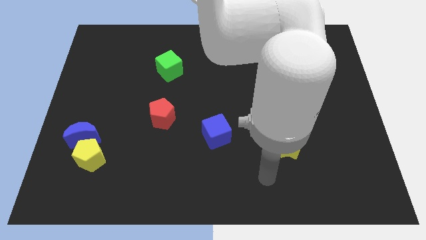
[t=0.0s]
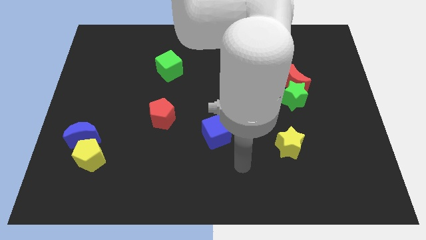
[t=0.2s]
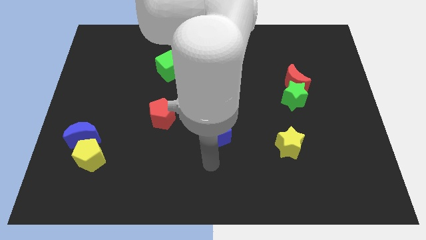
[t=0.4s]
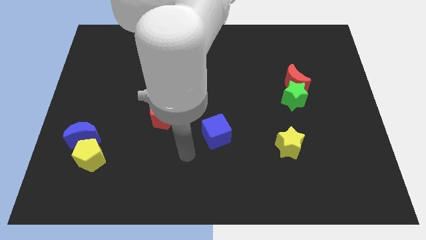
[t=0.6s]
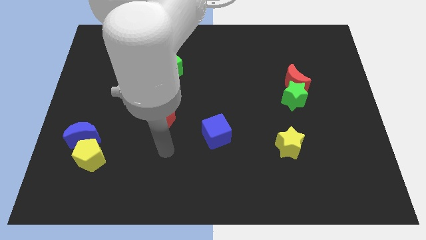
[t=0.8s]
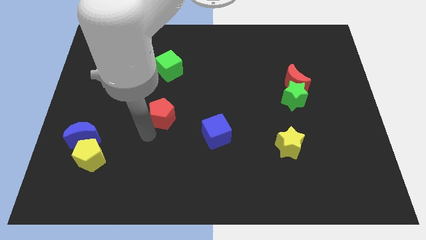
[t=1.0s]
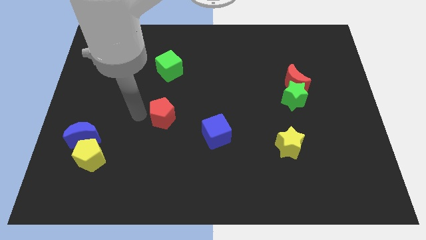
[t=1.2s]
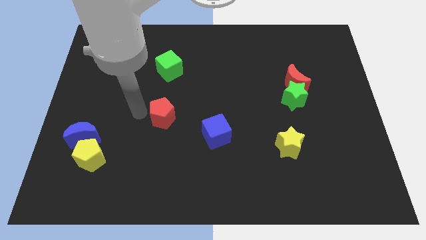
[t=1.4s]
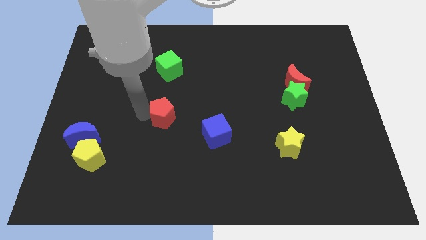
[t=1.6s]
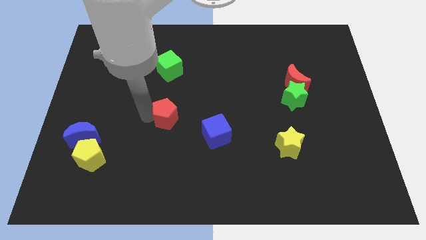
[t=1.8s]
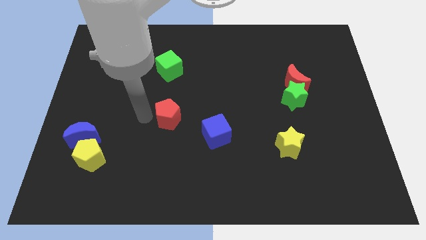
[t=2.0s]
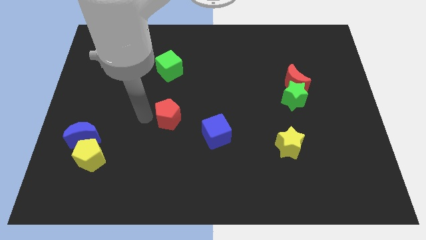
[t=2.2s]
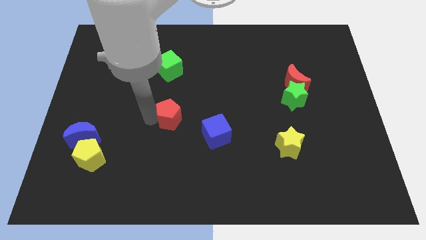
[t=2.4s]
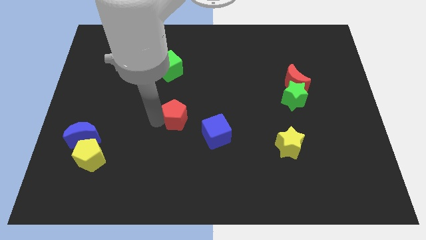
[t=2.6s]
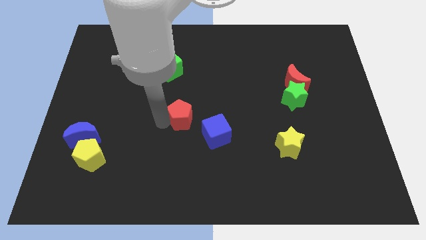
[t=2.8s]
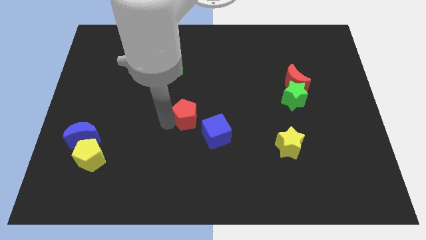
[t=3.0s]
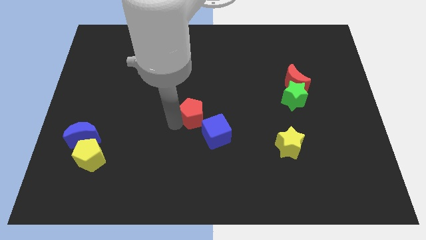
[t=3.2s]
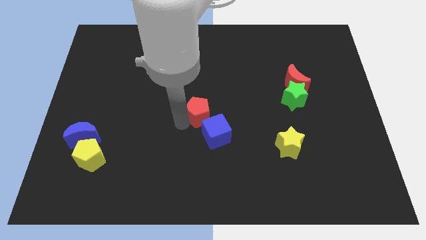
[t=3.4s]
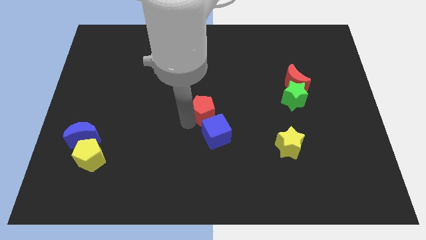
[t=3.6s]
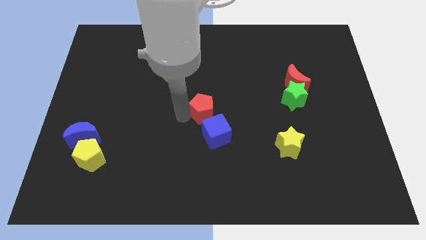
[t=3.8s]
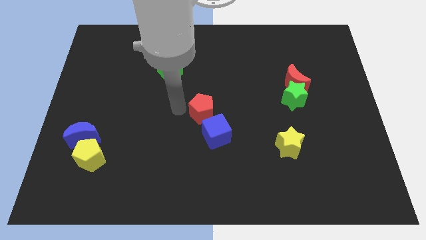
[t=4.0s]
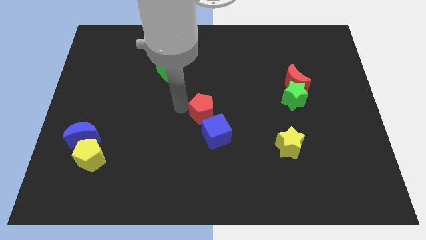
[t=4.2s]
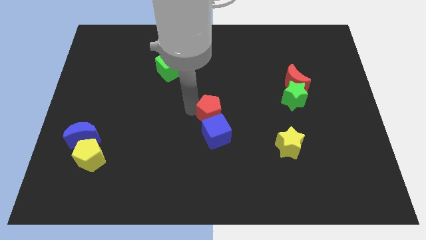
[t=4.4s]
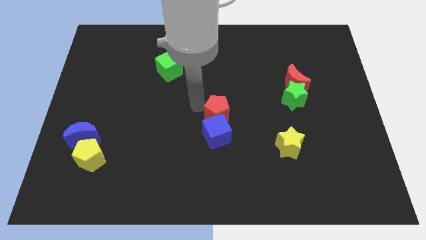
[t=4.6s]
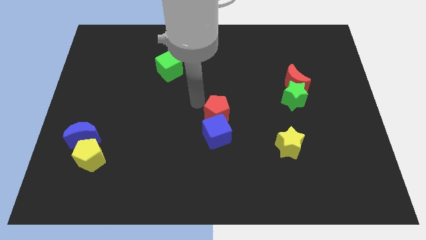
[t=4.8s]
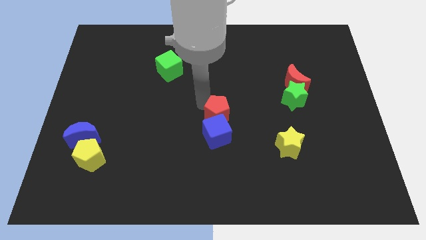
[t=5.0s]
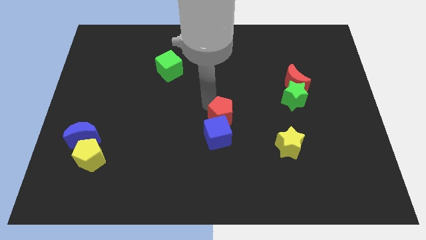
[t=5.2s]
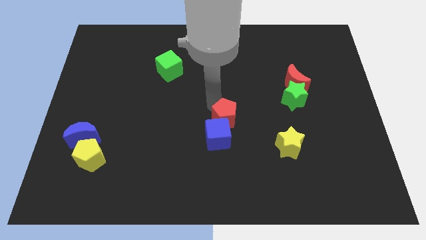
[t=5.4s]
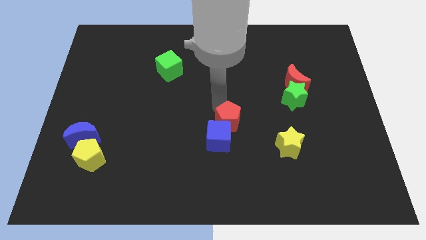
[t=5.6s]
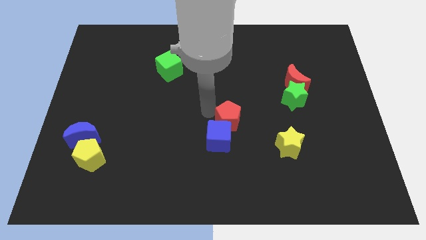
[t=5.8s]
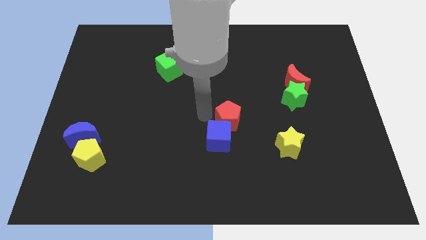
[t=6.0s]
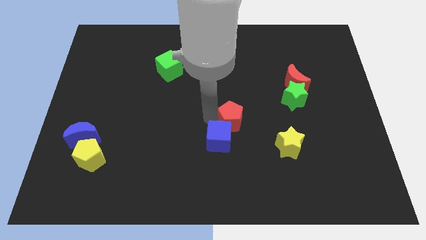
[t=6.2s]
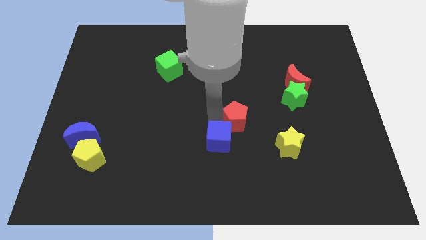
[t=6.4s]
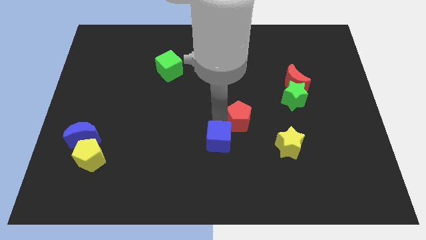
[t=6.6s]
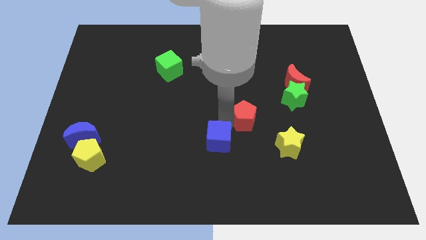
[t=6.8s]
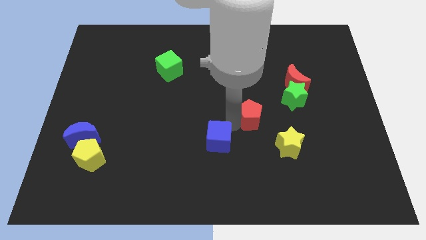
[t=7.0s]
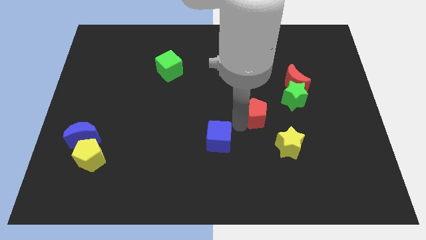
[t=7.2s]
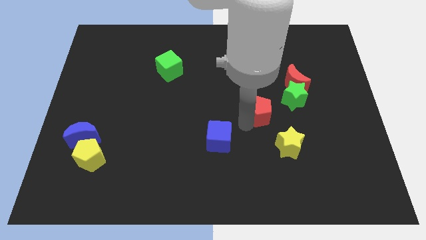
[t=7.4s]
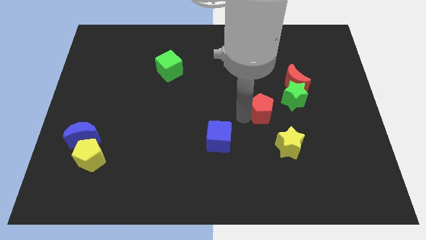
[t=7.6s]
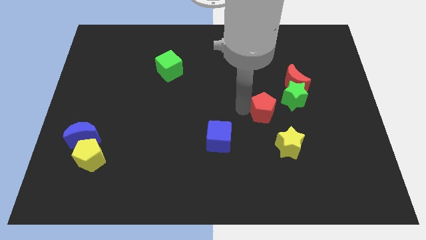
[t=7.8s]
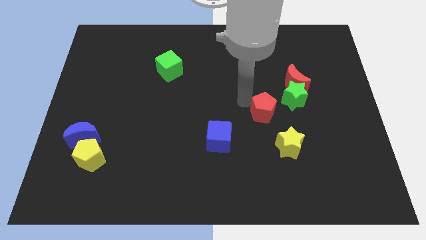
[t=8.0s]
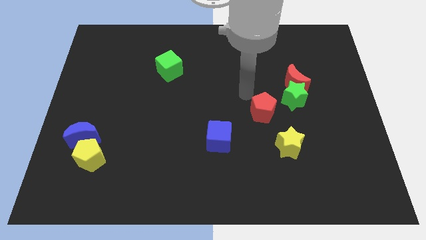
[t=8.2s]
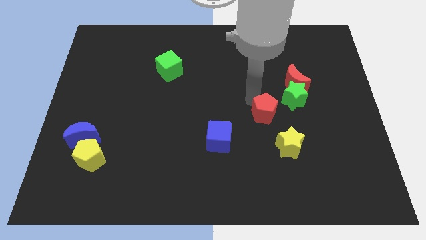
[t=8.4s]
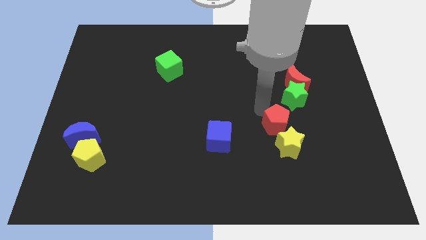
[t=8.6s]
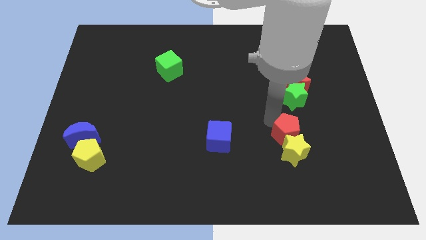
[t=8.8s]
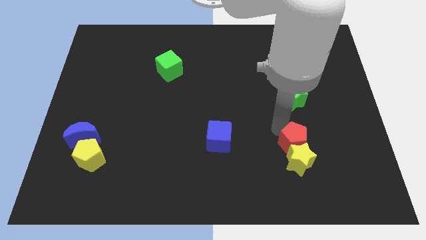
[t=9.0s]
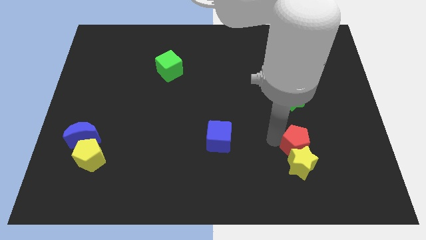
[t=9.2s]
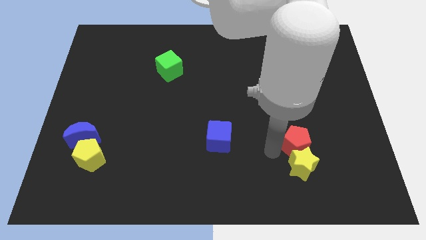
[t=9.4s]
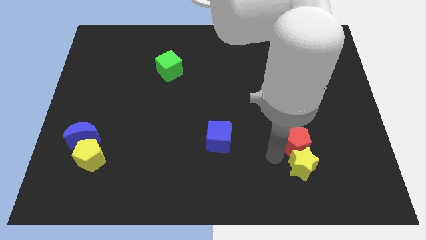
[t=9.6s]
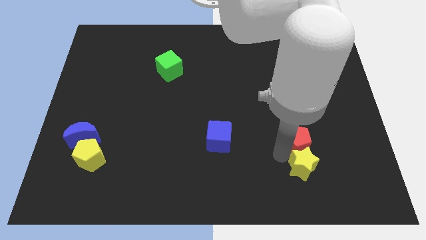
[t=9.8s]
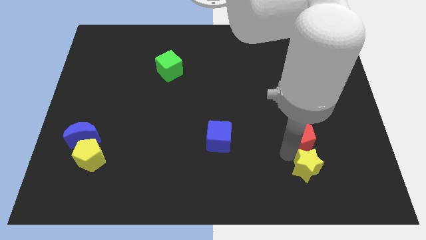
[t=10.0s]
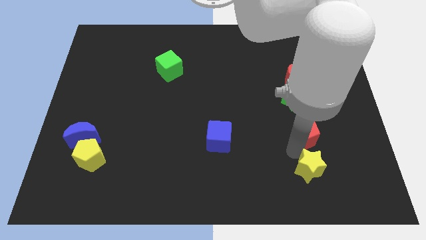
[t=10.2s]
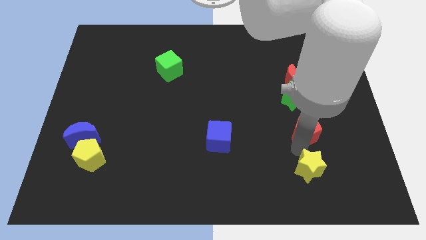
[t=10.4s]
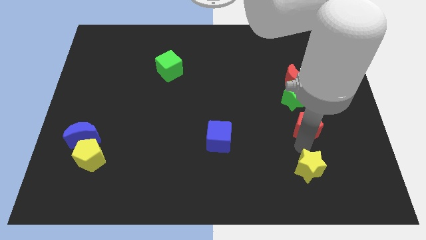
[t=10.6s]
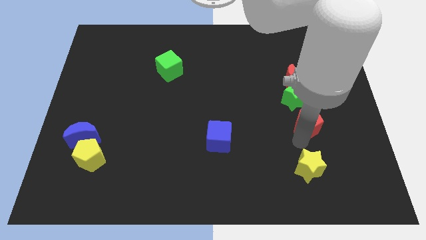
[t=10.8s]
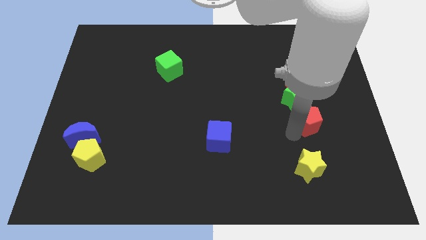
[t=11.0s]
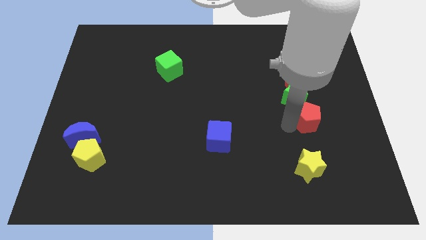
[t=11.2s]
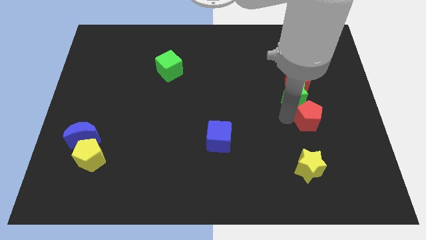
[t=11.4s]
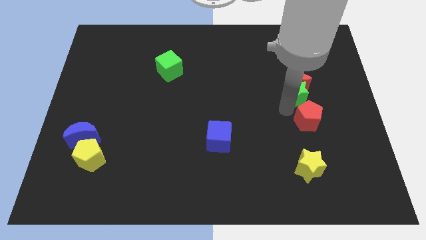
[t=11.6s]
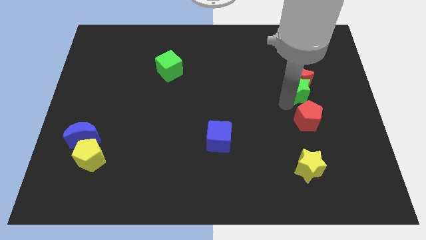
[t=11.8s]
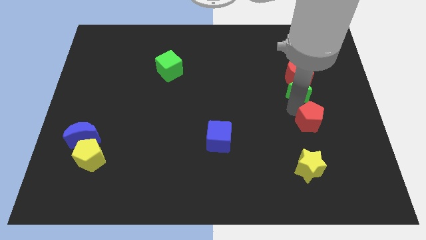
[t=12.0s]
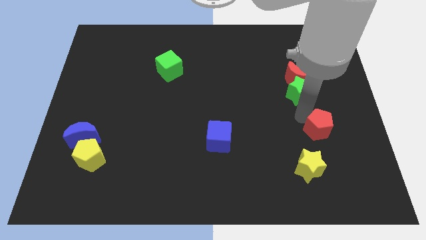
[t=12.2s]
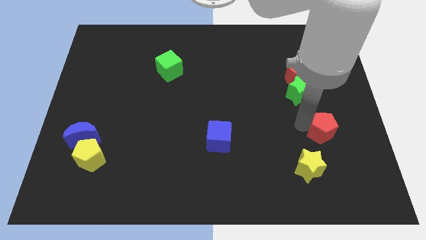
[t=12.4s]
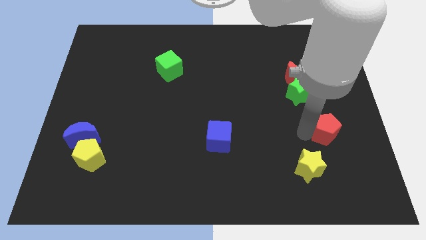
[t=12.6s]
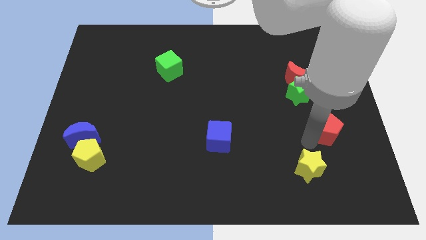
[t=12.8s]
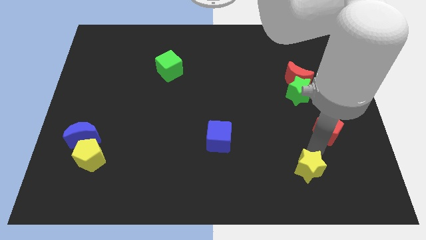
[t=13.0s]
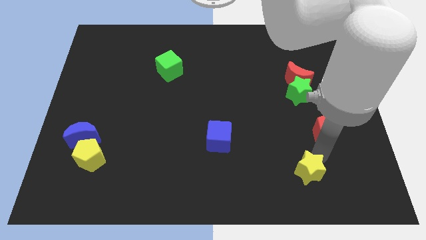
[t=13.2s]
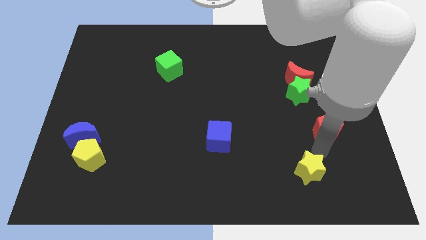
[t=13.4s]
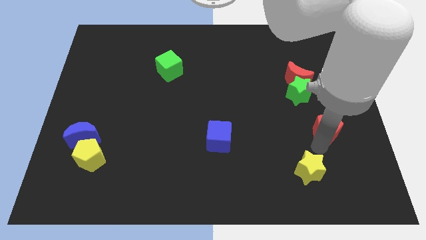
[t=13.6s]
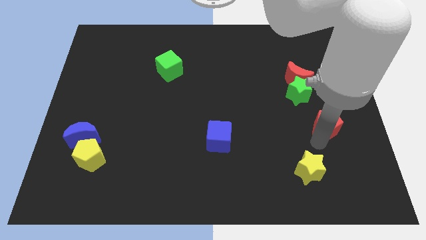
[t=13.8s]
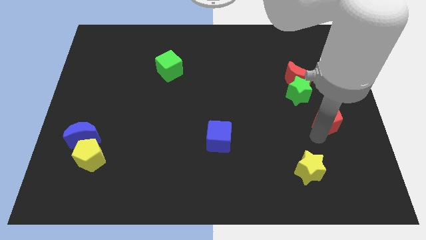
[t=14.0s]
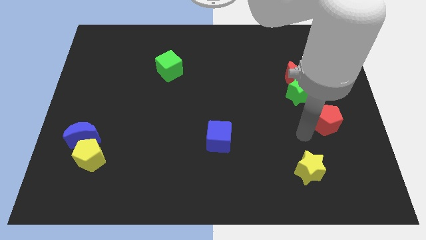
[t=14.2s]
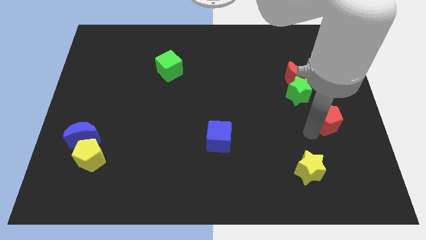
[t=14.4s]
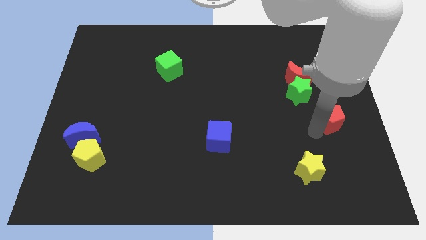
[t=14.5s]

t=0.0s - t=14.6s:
slide the red pentagon to the right side
